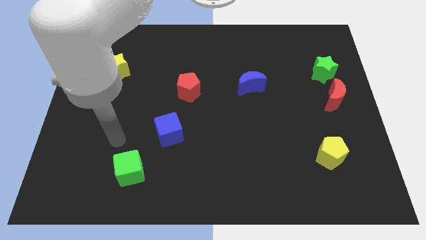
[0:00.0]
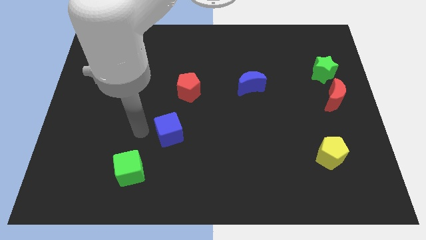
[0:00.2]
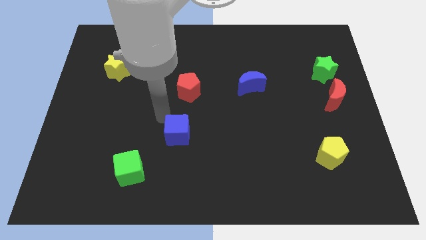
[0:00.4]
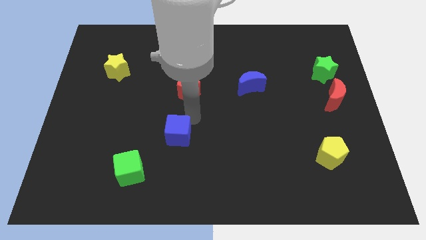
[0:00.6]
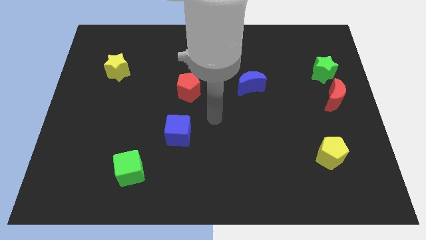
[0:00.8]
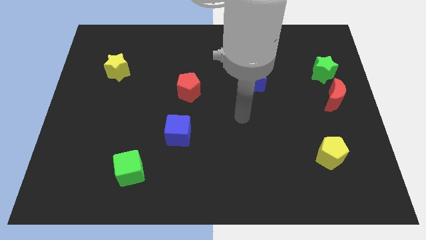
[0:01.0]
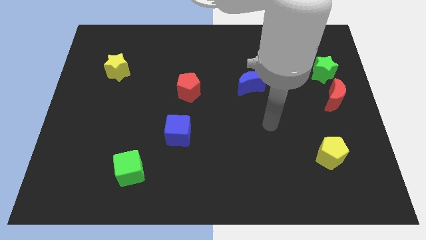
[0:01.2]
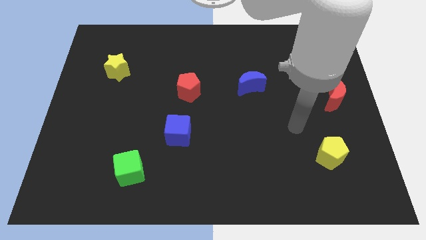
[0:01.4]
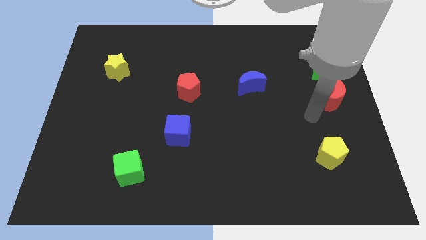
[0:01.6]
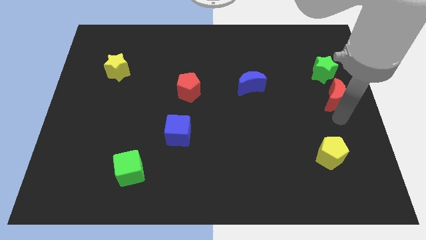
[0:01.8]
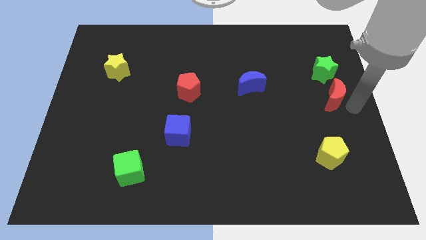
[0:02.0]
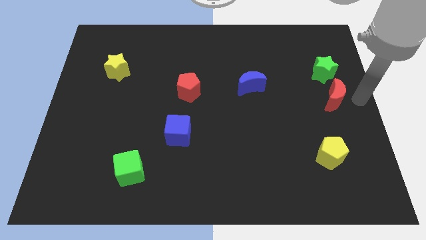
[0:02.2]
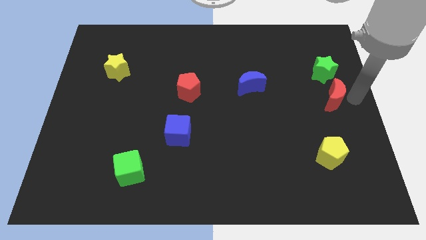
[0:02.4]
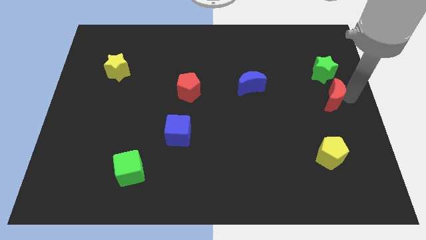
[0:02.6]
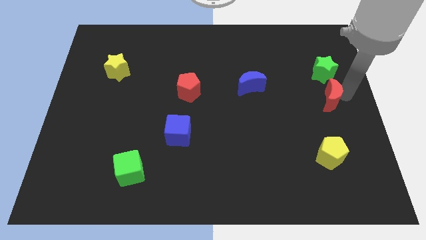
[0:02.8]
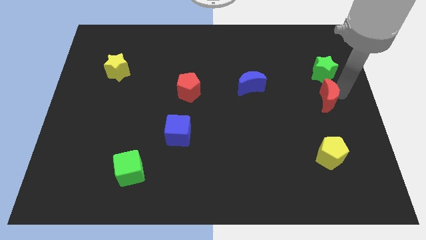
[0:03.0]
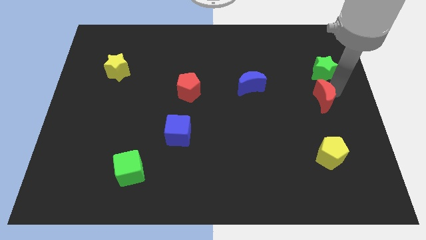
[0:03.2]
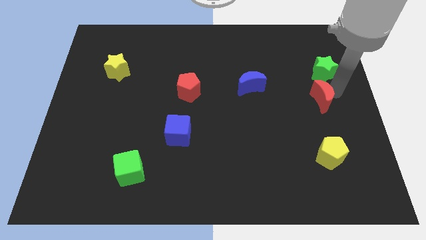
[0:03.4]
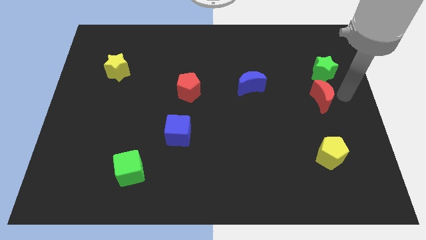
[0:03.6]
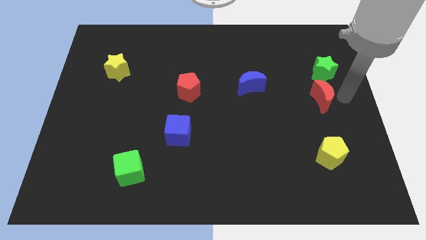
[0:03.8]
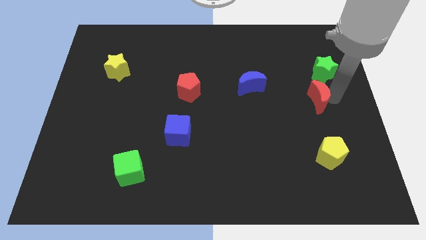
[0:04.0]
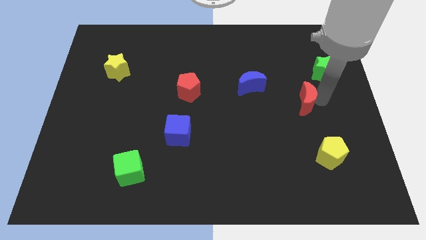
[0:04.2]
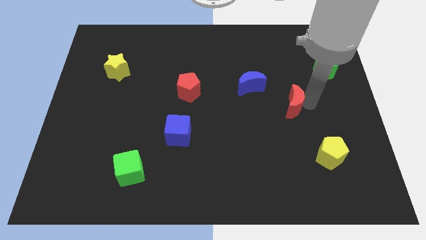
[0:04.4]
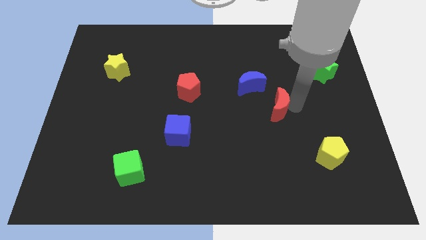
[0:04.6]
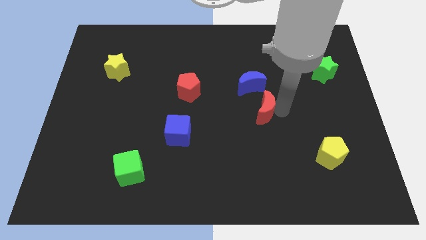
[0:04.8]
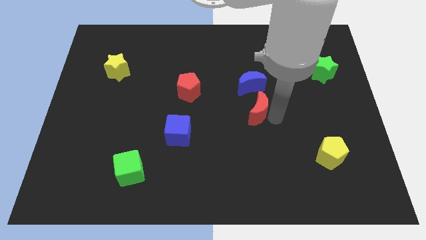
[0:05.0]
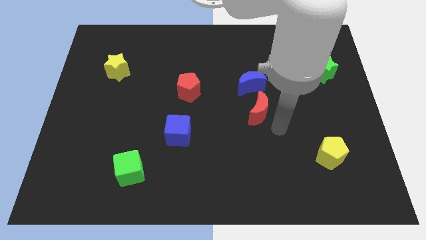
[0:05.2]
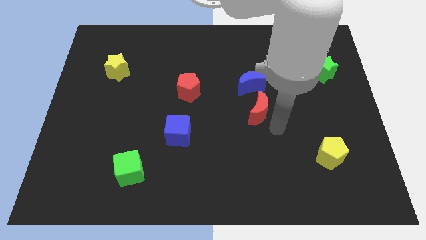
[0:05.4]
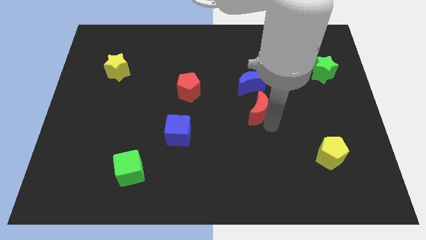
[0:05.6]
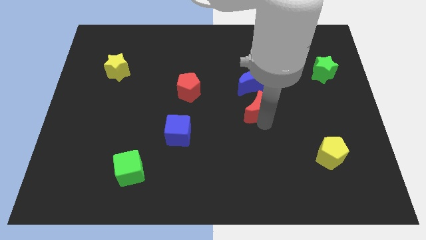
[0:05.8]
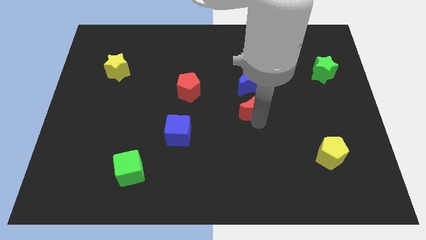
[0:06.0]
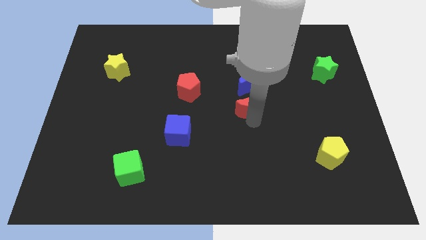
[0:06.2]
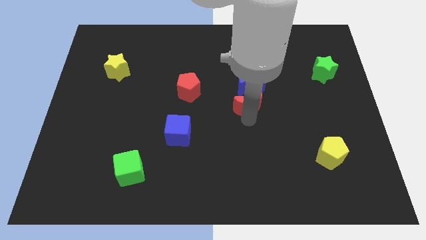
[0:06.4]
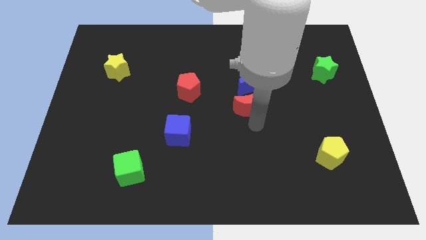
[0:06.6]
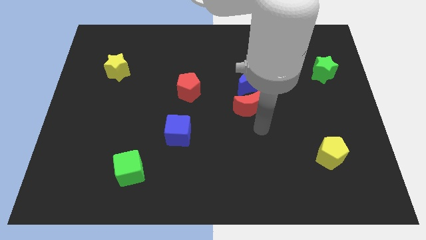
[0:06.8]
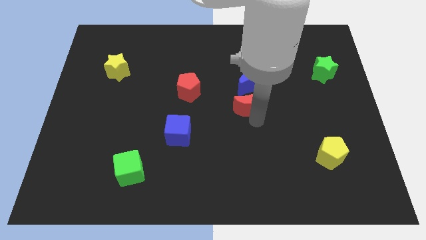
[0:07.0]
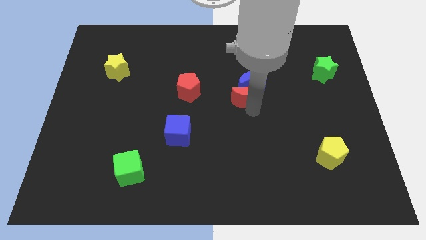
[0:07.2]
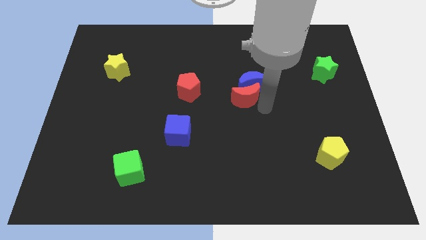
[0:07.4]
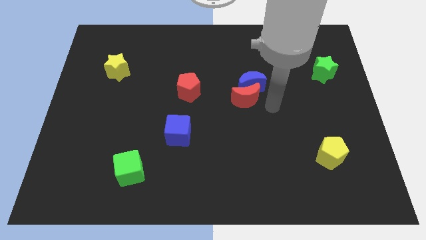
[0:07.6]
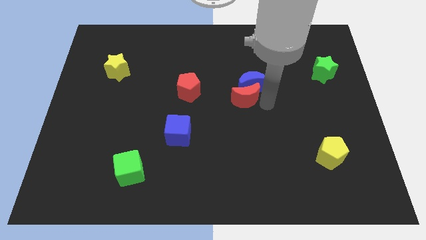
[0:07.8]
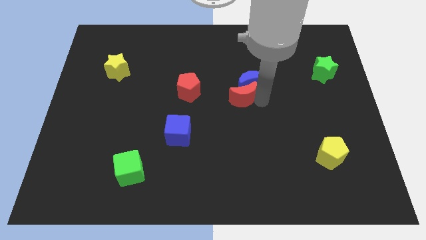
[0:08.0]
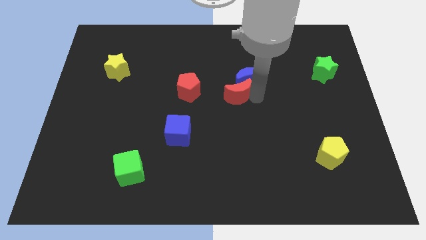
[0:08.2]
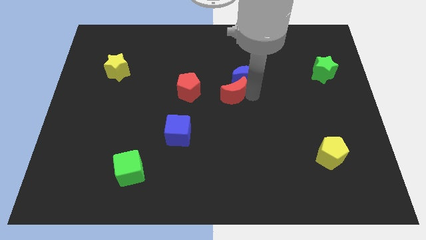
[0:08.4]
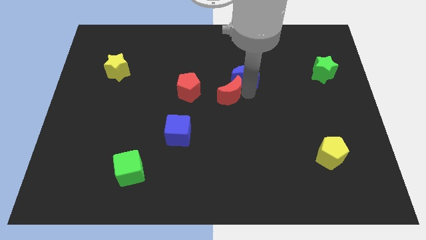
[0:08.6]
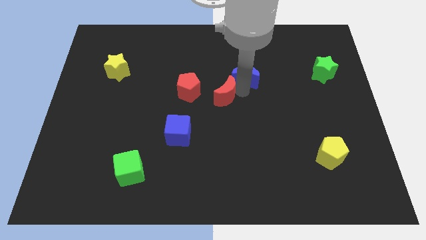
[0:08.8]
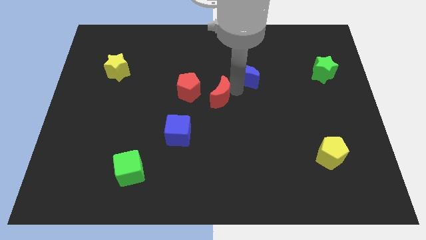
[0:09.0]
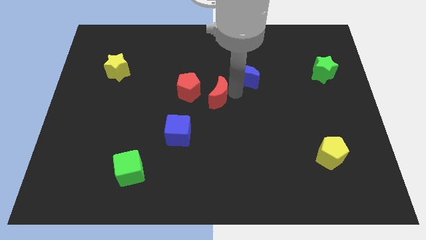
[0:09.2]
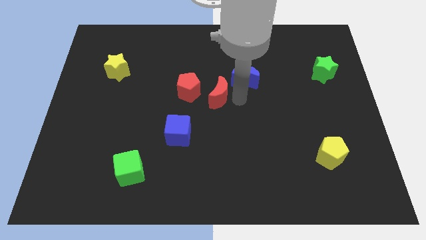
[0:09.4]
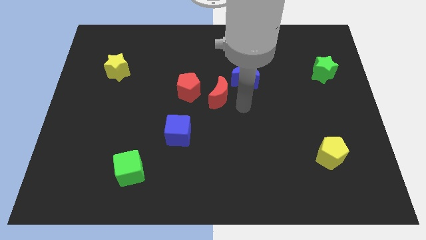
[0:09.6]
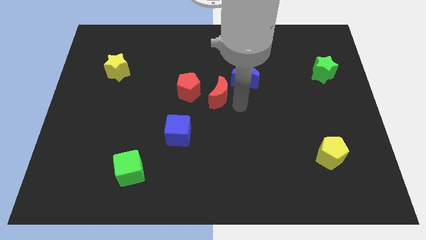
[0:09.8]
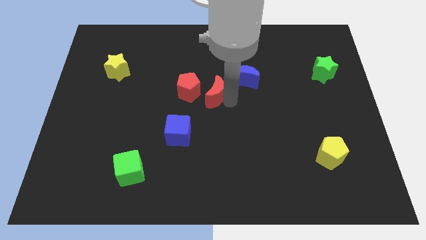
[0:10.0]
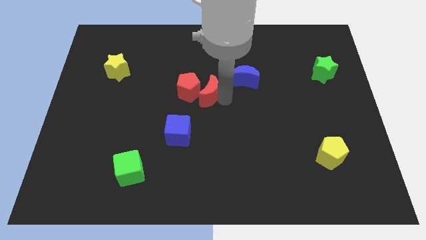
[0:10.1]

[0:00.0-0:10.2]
put the red moon next to the red pentagon

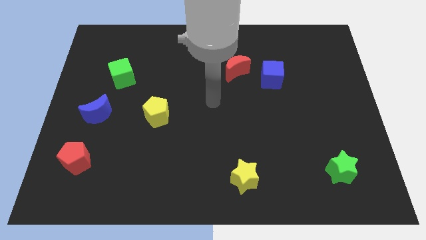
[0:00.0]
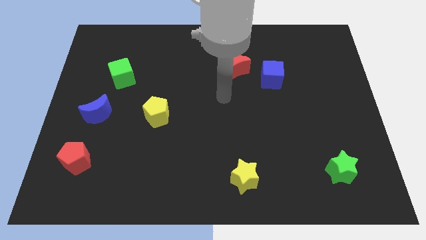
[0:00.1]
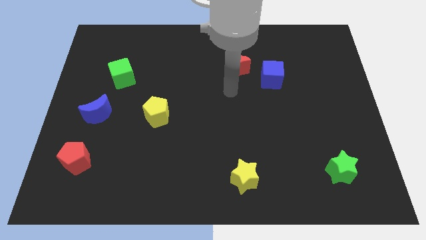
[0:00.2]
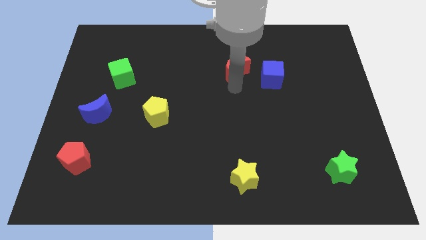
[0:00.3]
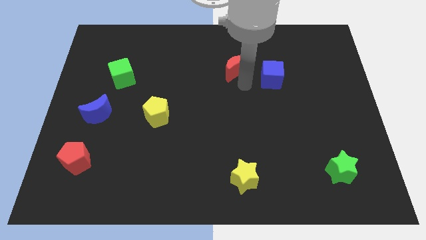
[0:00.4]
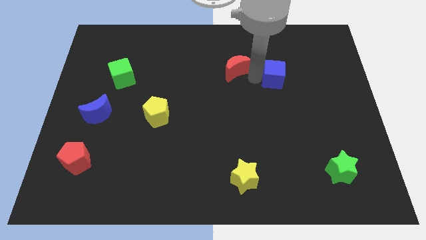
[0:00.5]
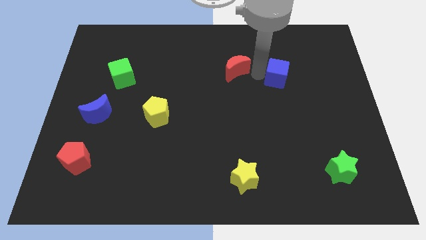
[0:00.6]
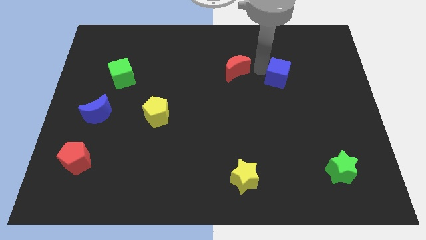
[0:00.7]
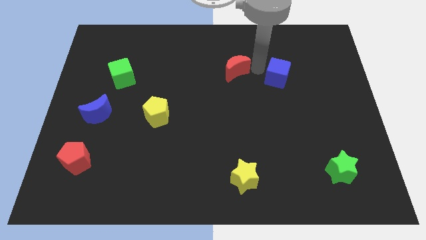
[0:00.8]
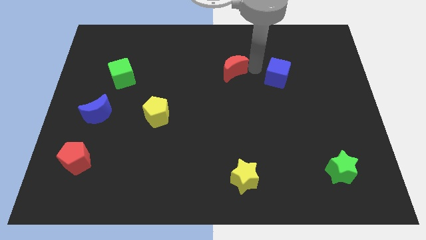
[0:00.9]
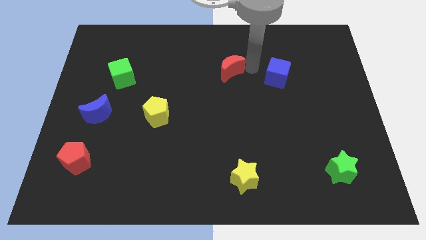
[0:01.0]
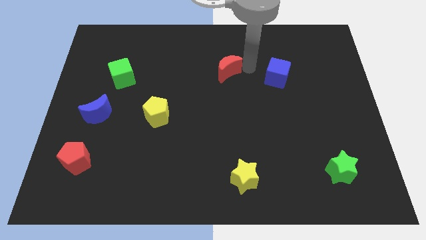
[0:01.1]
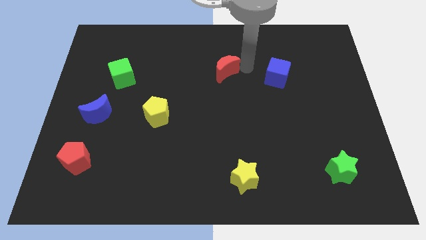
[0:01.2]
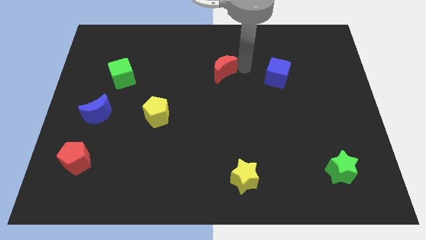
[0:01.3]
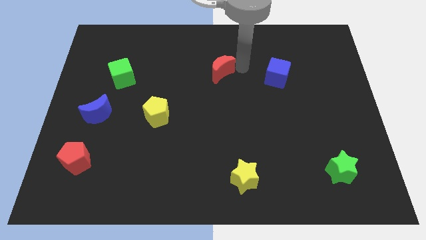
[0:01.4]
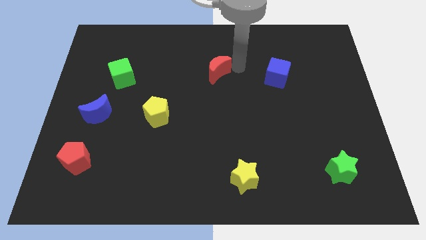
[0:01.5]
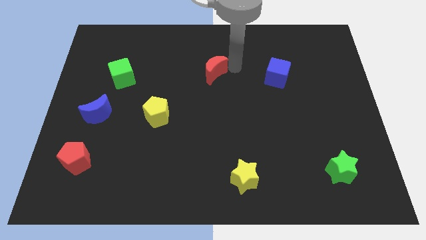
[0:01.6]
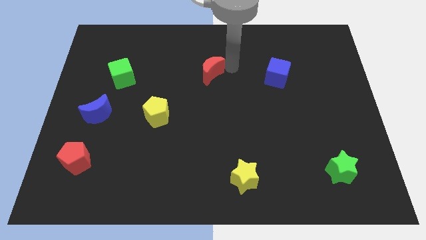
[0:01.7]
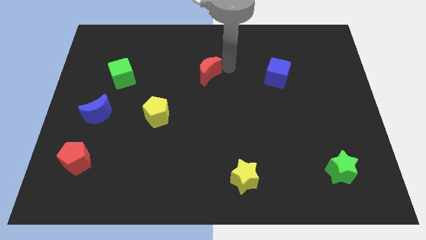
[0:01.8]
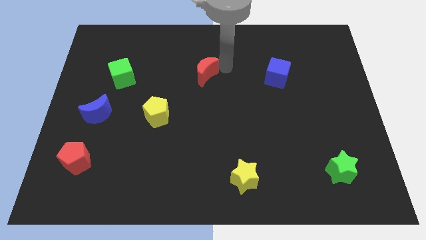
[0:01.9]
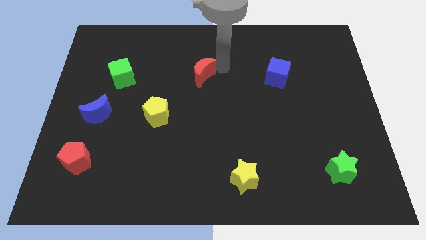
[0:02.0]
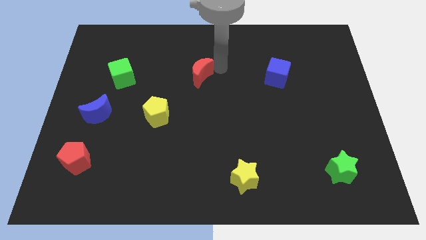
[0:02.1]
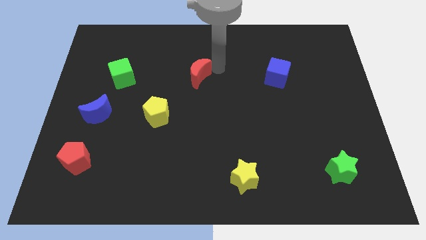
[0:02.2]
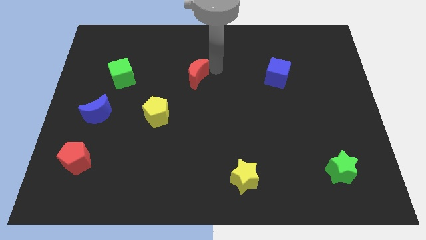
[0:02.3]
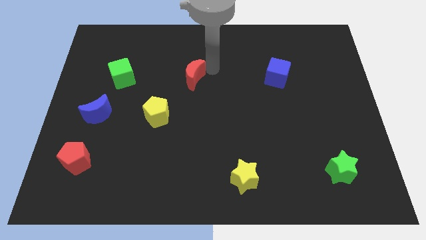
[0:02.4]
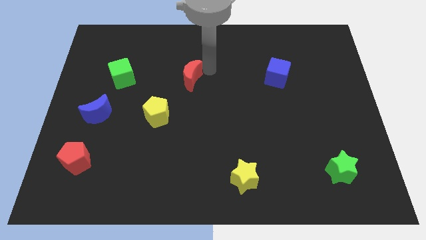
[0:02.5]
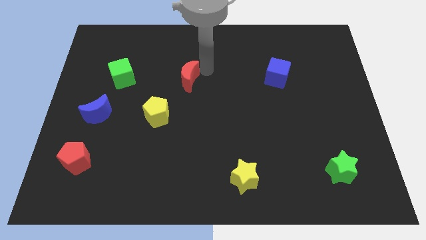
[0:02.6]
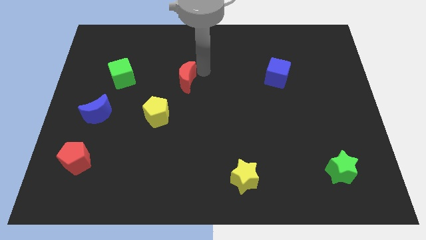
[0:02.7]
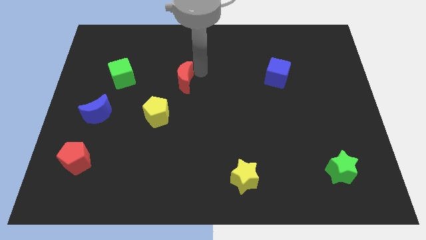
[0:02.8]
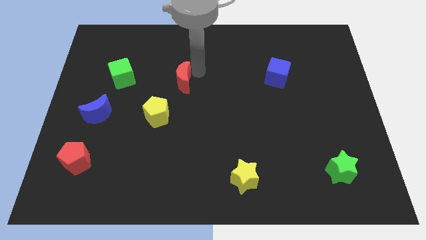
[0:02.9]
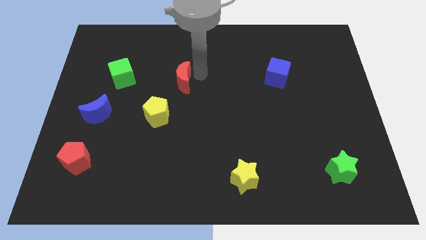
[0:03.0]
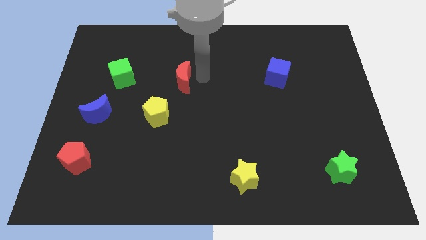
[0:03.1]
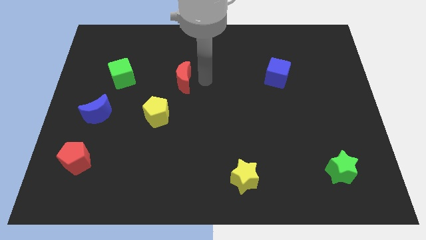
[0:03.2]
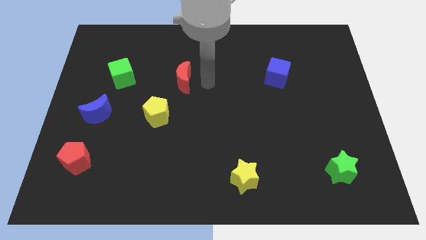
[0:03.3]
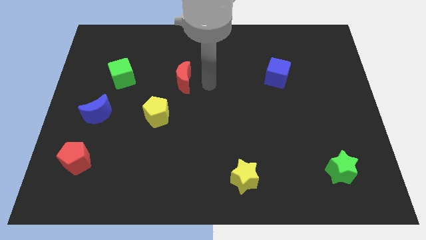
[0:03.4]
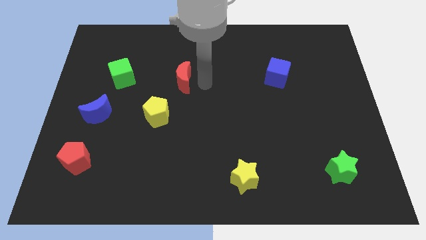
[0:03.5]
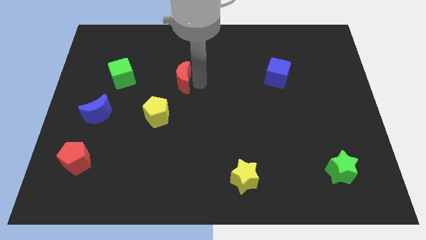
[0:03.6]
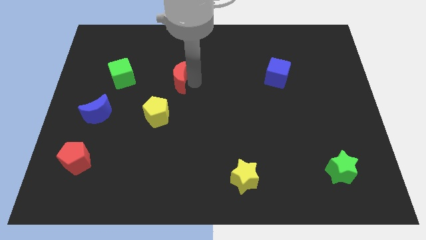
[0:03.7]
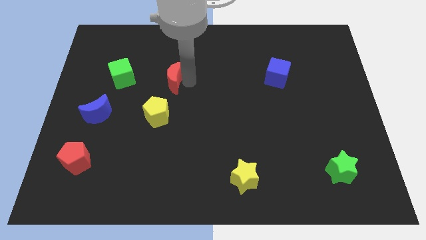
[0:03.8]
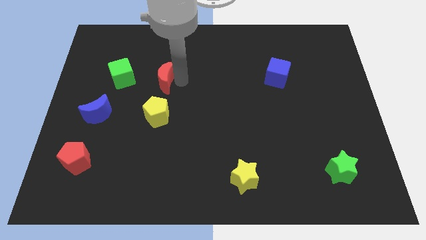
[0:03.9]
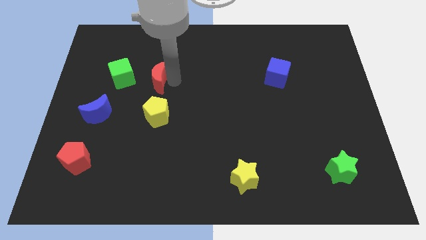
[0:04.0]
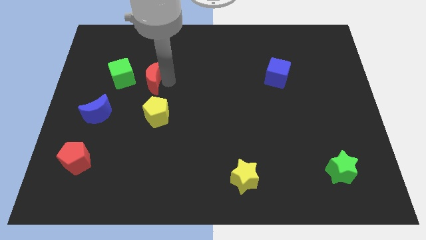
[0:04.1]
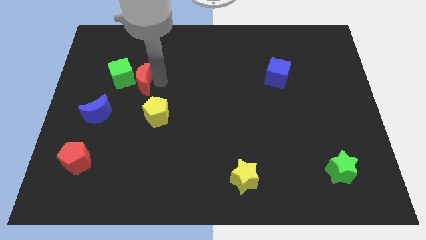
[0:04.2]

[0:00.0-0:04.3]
put the red moon towards the green cube
